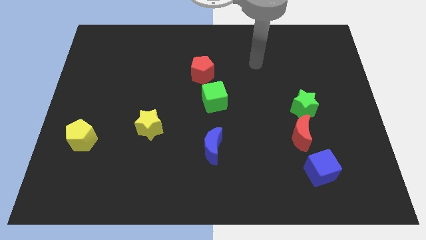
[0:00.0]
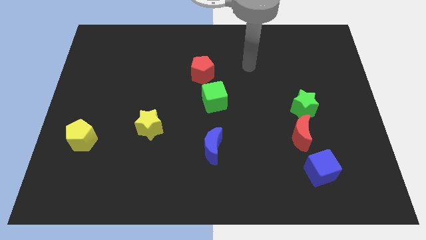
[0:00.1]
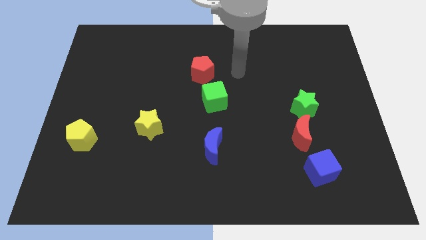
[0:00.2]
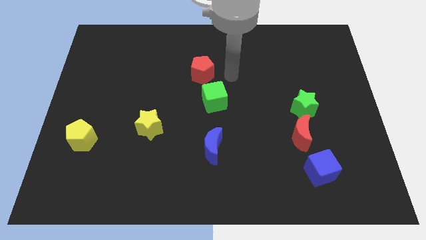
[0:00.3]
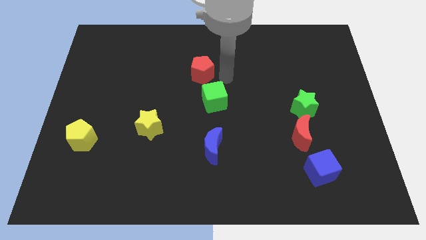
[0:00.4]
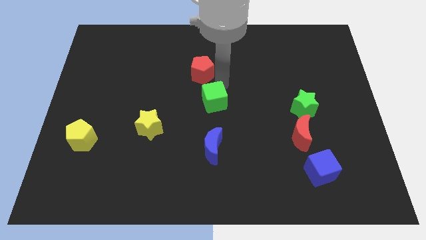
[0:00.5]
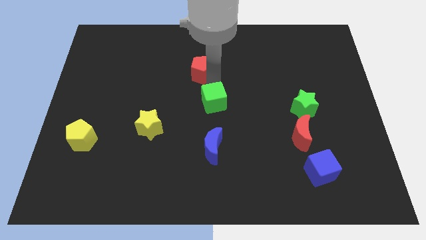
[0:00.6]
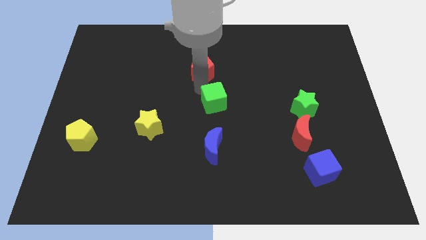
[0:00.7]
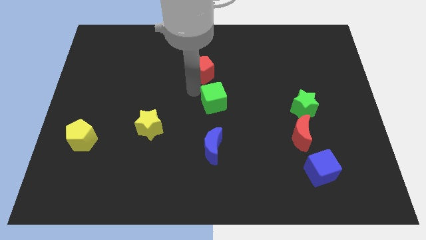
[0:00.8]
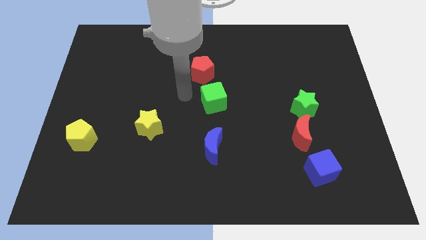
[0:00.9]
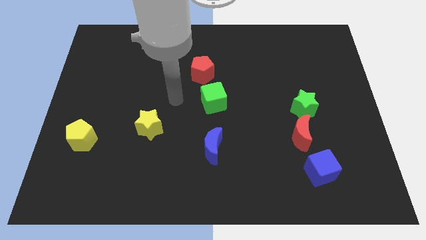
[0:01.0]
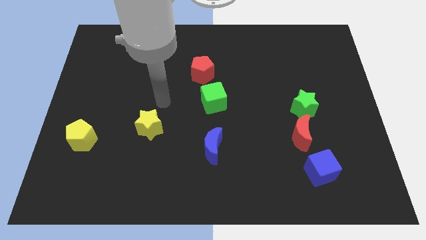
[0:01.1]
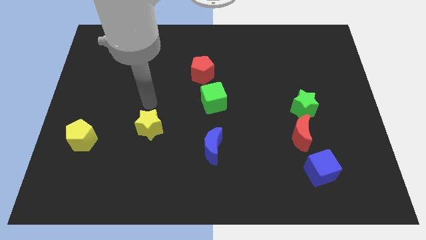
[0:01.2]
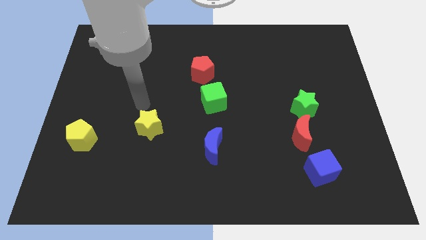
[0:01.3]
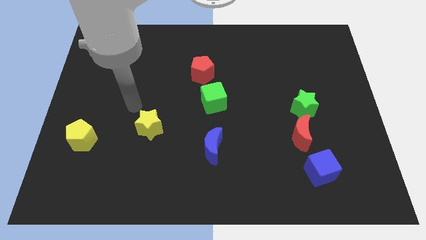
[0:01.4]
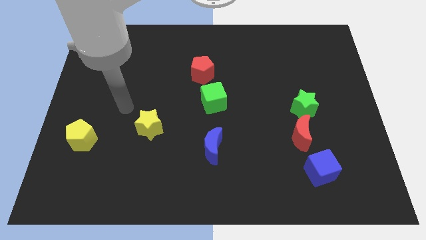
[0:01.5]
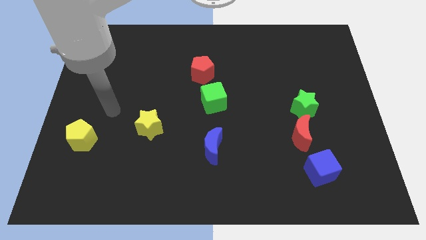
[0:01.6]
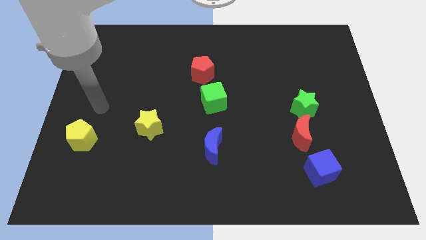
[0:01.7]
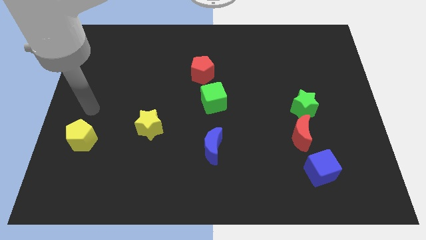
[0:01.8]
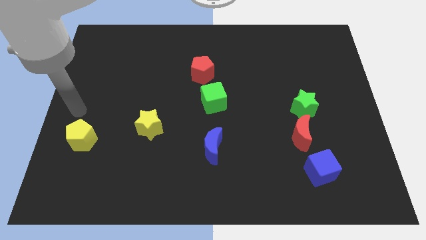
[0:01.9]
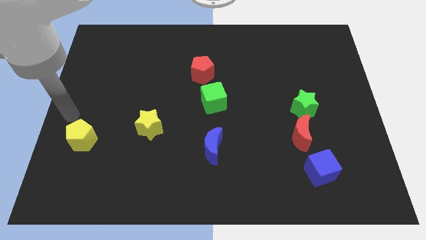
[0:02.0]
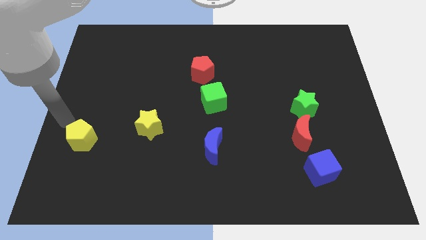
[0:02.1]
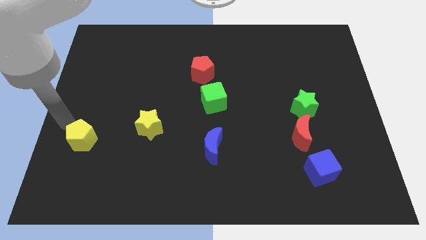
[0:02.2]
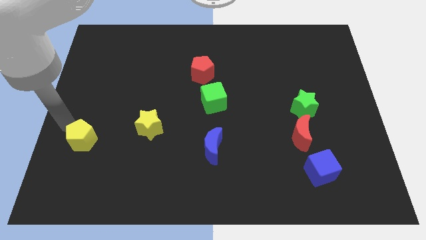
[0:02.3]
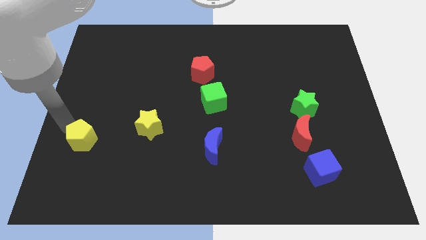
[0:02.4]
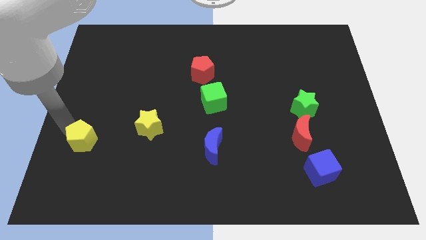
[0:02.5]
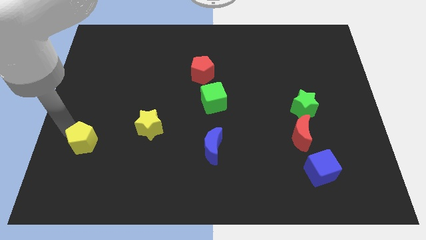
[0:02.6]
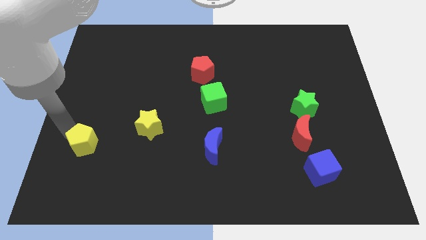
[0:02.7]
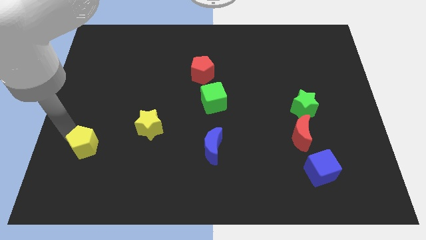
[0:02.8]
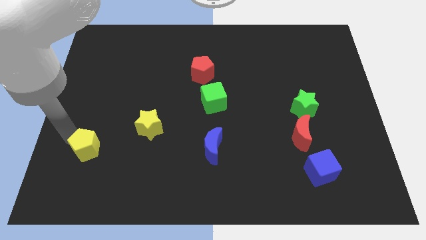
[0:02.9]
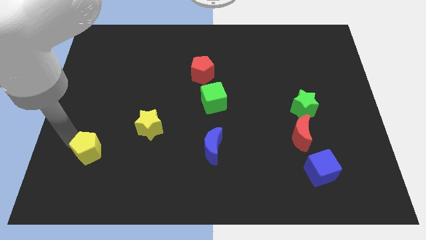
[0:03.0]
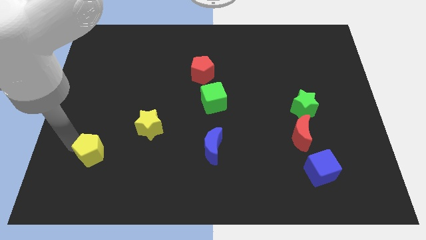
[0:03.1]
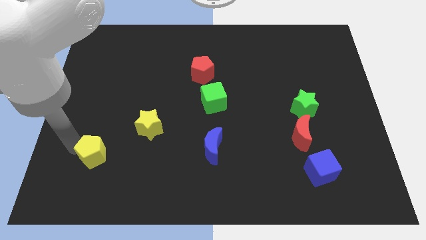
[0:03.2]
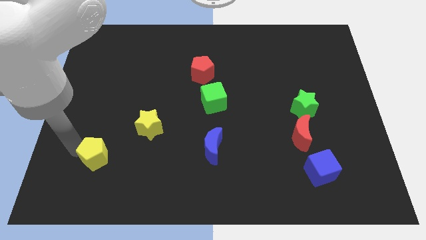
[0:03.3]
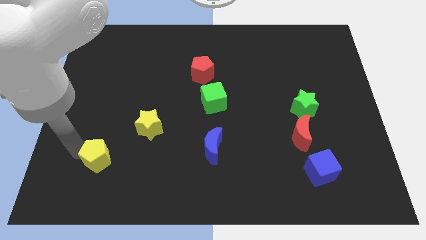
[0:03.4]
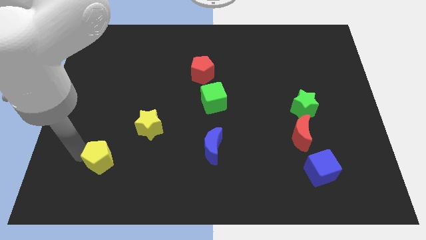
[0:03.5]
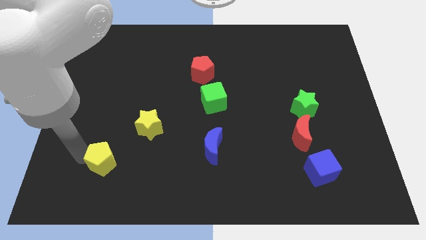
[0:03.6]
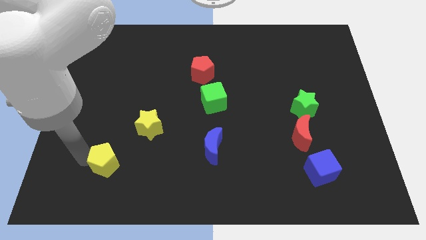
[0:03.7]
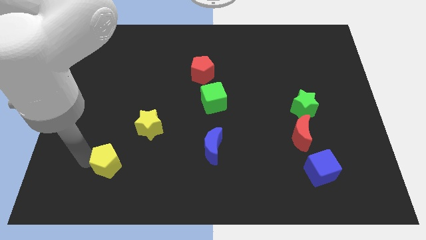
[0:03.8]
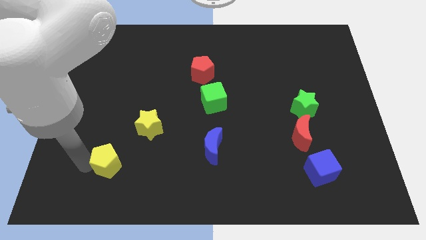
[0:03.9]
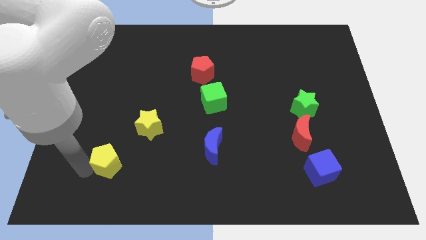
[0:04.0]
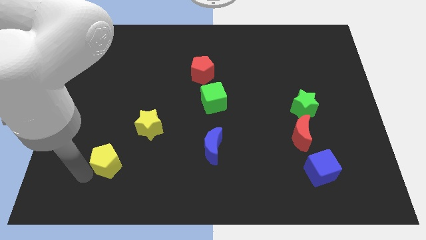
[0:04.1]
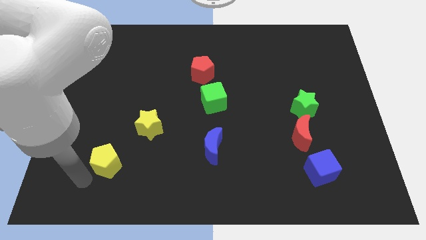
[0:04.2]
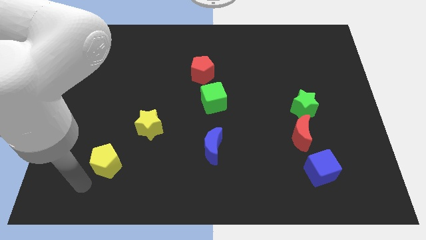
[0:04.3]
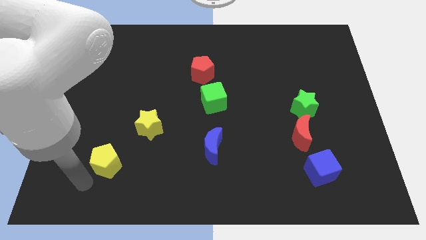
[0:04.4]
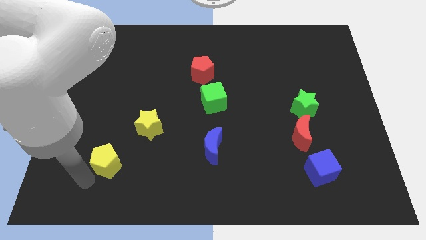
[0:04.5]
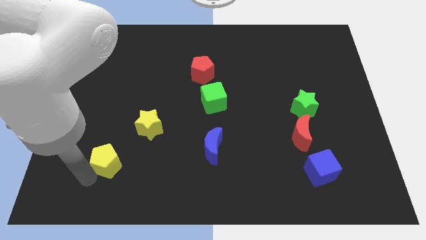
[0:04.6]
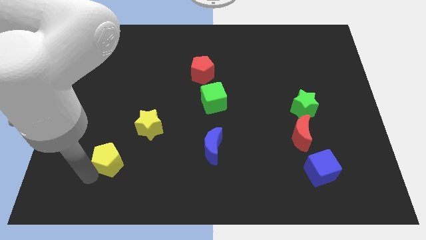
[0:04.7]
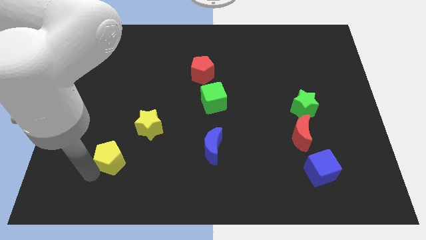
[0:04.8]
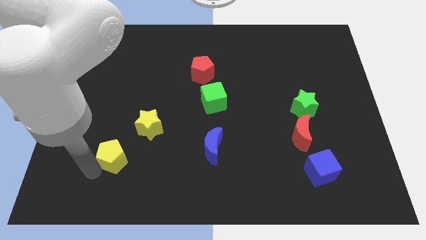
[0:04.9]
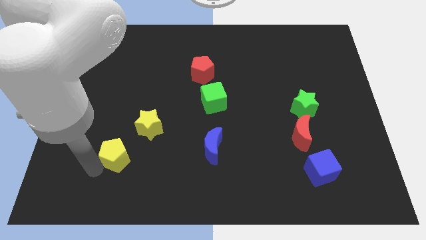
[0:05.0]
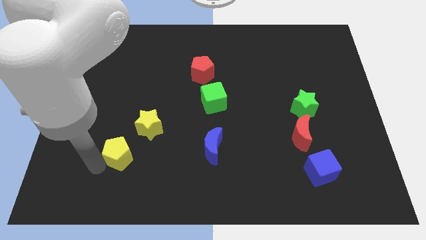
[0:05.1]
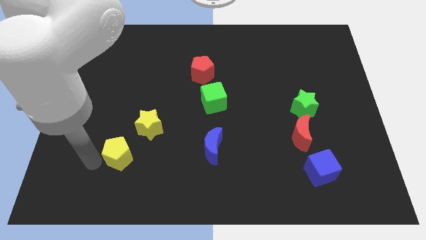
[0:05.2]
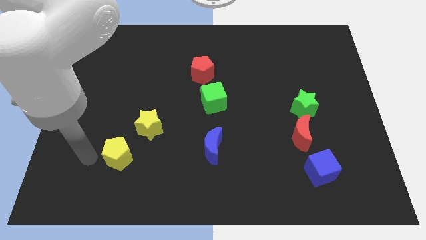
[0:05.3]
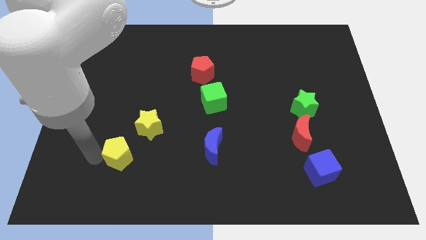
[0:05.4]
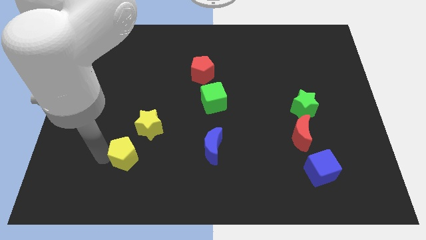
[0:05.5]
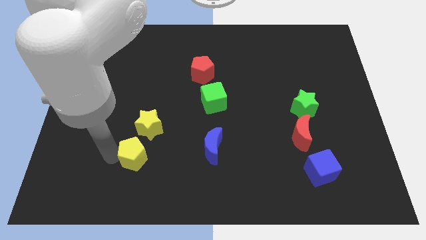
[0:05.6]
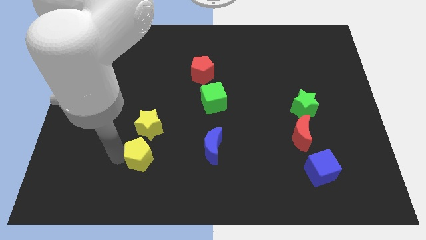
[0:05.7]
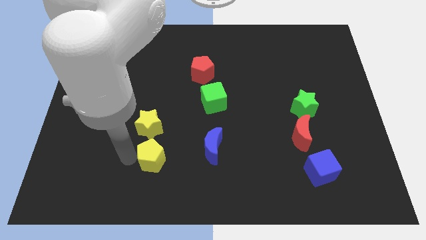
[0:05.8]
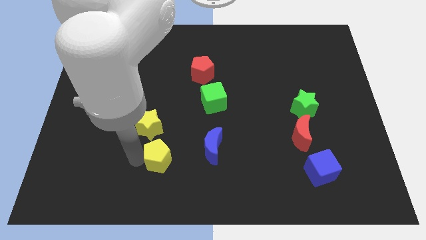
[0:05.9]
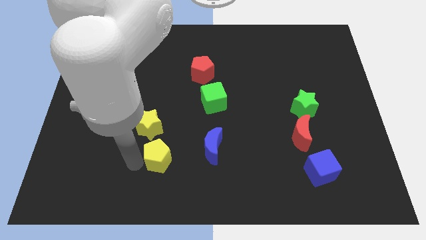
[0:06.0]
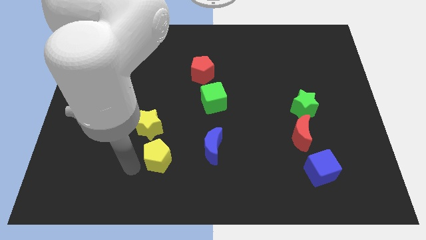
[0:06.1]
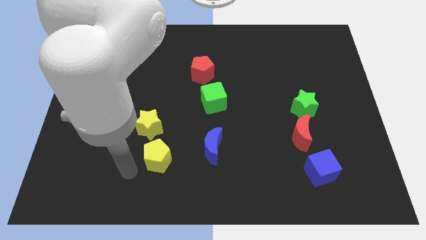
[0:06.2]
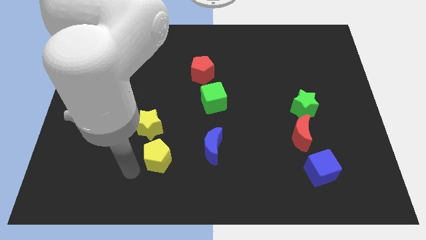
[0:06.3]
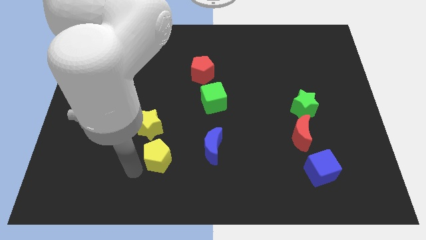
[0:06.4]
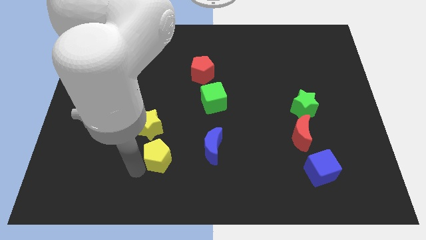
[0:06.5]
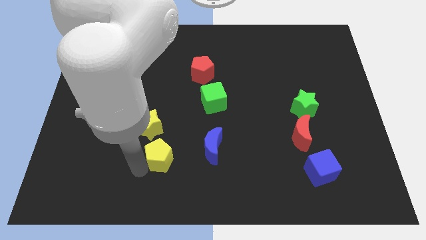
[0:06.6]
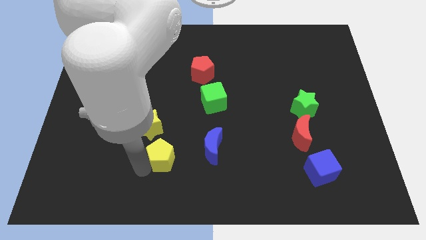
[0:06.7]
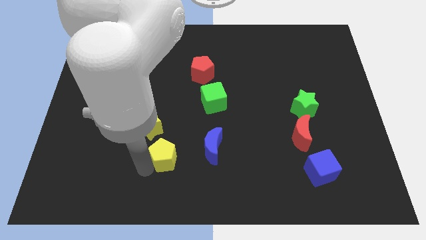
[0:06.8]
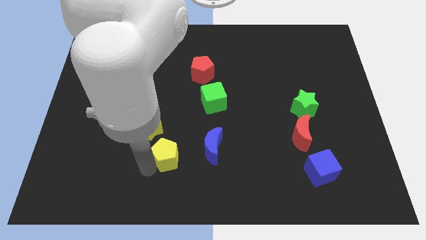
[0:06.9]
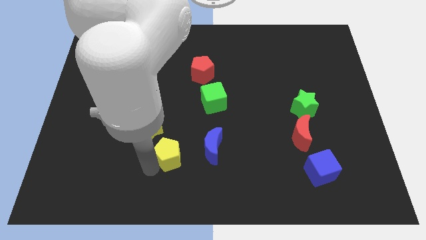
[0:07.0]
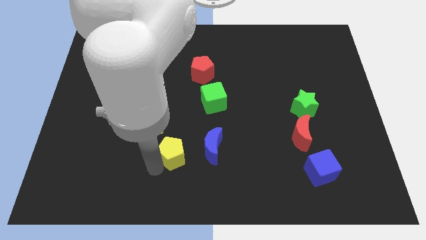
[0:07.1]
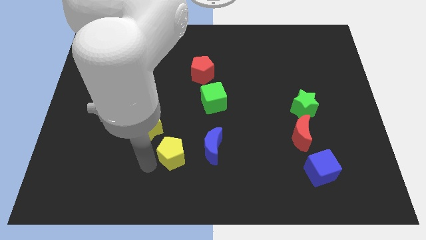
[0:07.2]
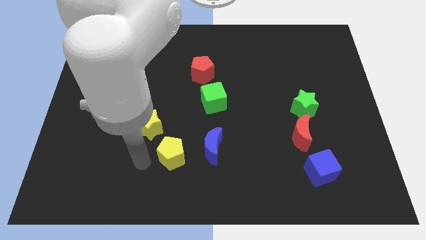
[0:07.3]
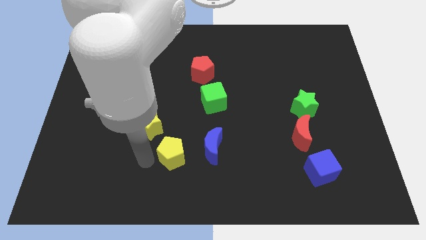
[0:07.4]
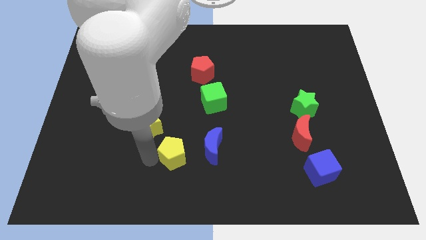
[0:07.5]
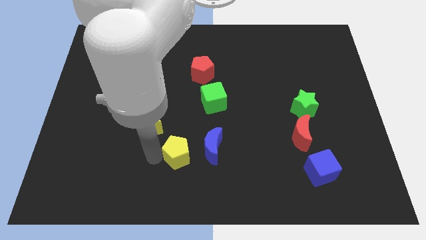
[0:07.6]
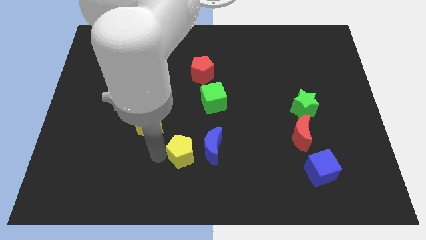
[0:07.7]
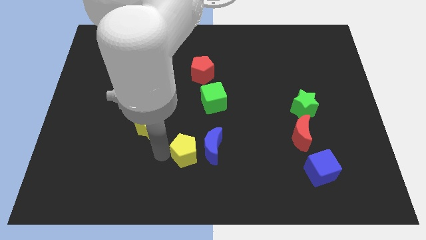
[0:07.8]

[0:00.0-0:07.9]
move the yellow pentagon towards the blue moon
